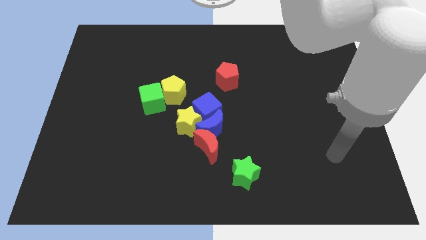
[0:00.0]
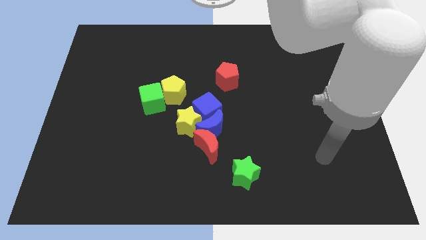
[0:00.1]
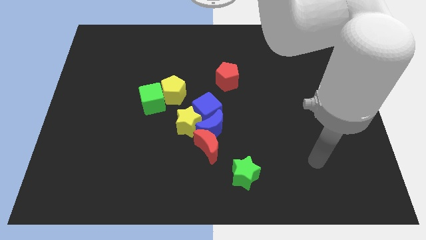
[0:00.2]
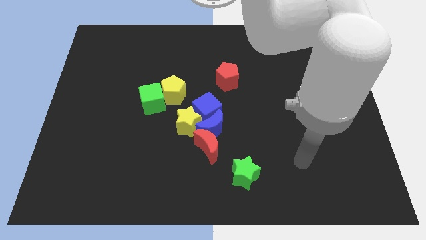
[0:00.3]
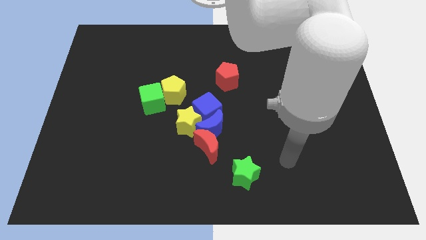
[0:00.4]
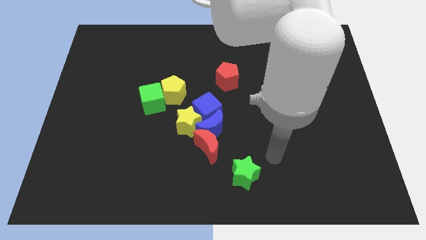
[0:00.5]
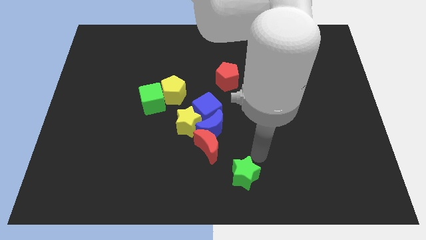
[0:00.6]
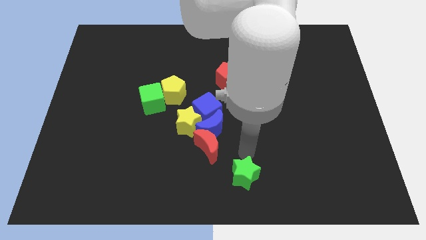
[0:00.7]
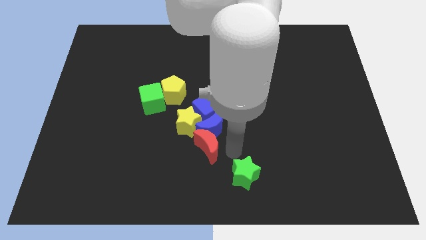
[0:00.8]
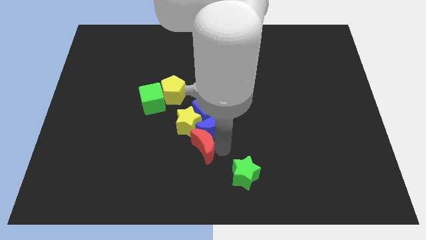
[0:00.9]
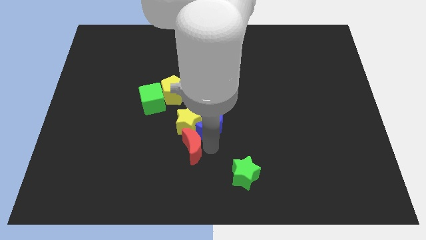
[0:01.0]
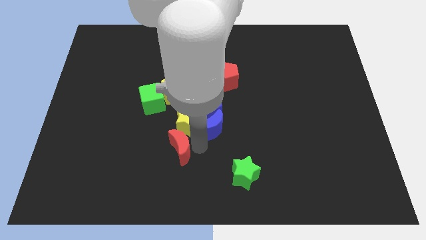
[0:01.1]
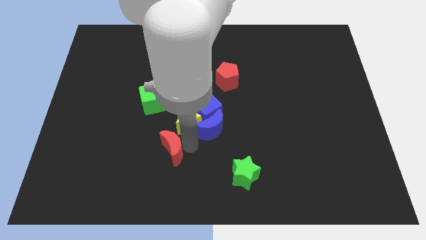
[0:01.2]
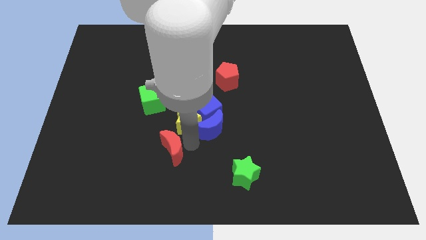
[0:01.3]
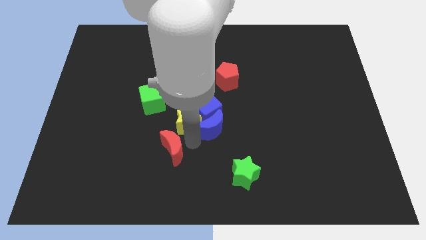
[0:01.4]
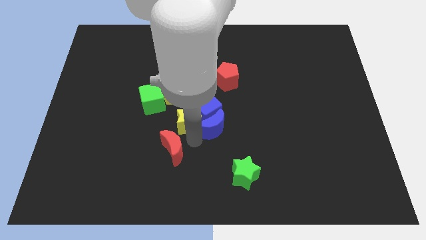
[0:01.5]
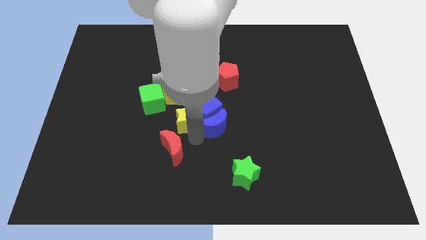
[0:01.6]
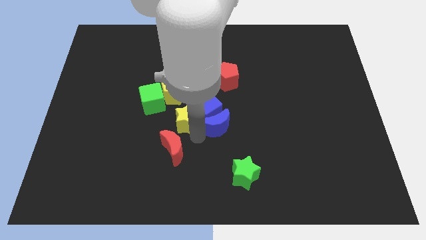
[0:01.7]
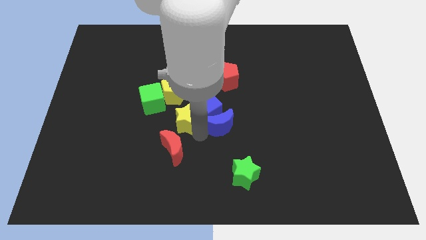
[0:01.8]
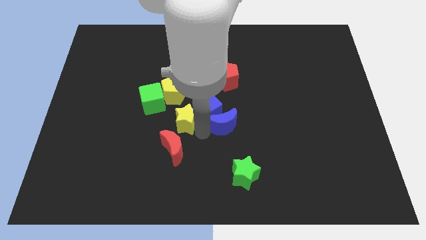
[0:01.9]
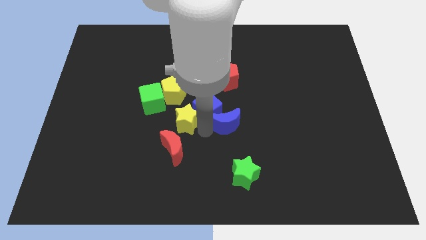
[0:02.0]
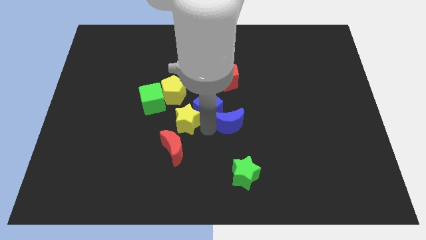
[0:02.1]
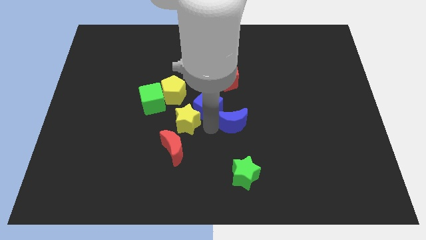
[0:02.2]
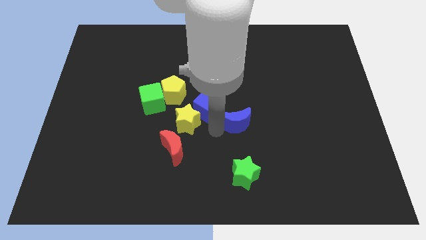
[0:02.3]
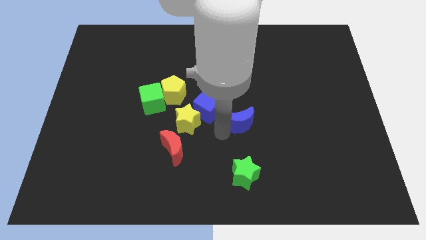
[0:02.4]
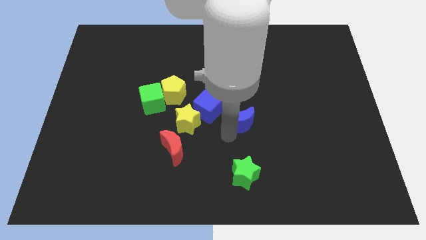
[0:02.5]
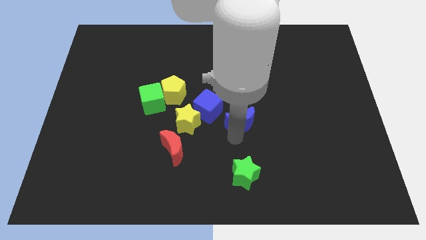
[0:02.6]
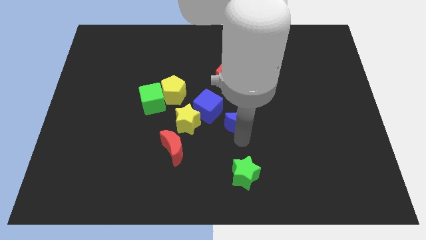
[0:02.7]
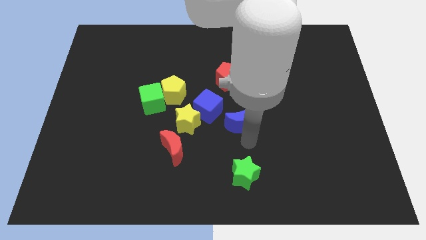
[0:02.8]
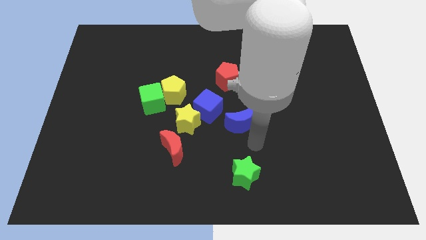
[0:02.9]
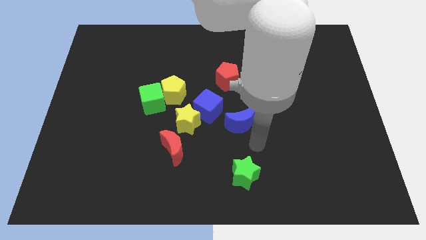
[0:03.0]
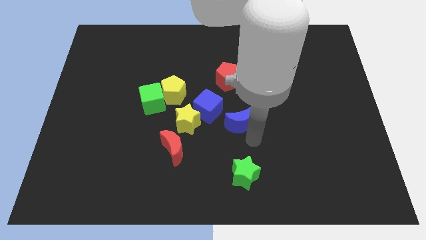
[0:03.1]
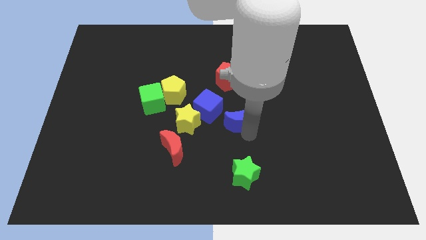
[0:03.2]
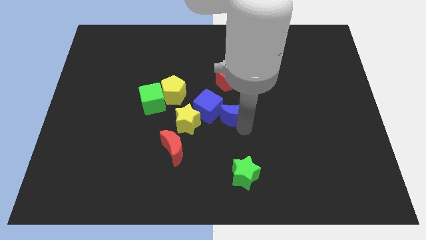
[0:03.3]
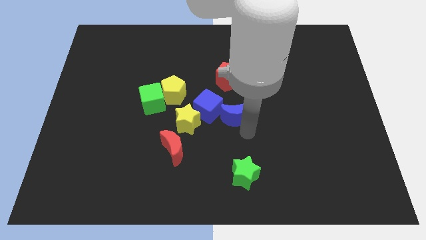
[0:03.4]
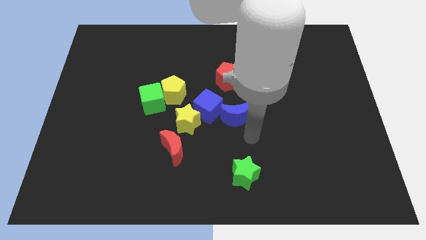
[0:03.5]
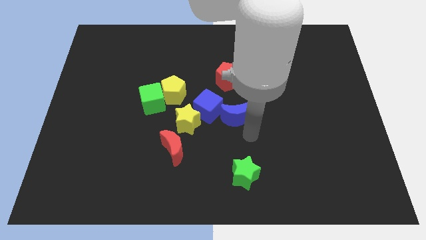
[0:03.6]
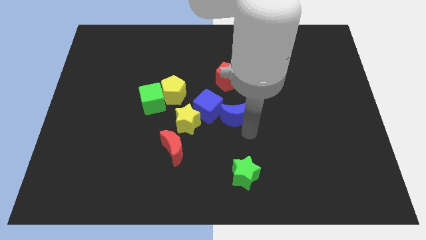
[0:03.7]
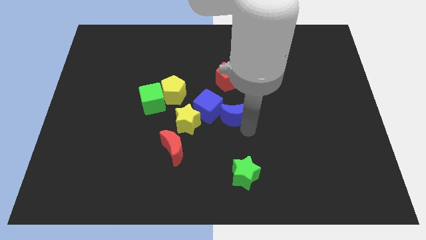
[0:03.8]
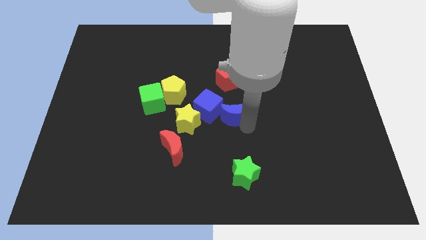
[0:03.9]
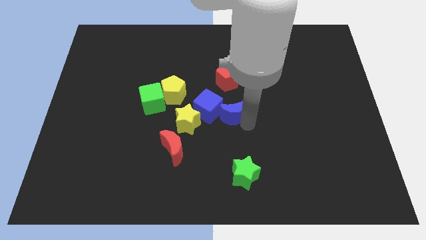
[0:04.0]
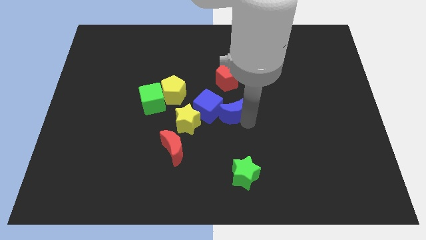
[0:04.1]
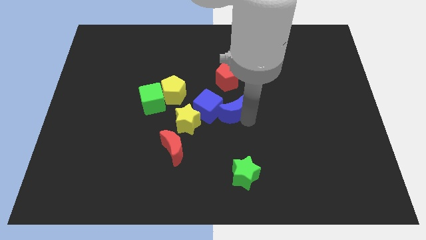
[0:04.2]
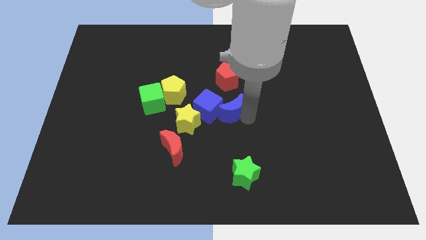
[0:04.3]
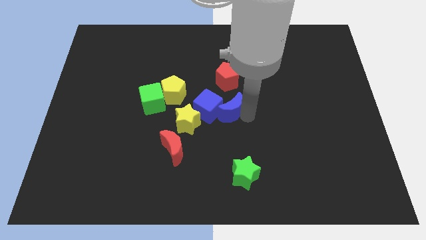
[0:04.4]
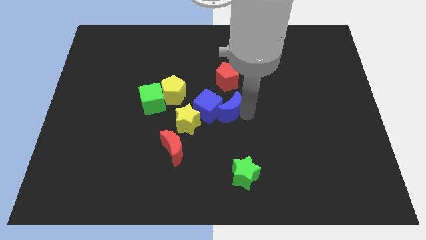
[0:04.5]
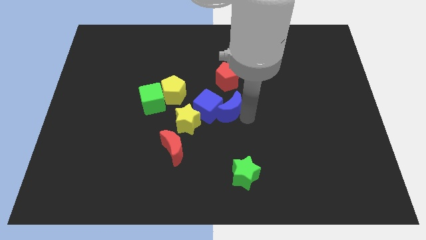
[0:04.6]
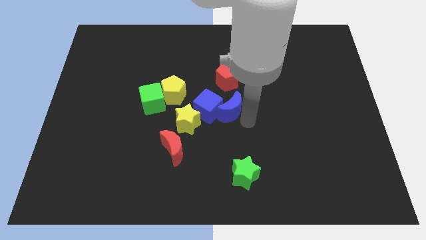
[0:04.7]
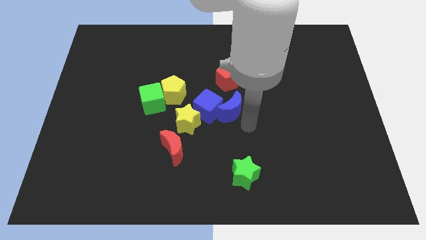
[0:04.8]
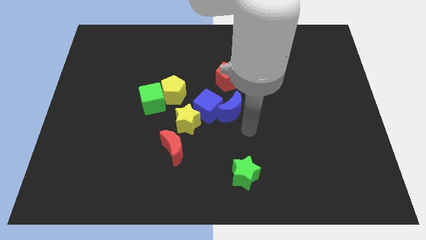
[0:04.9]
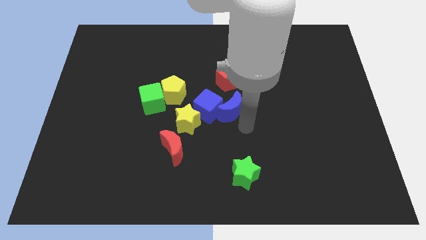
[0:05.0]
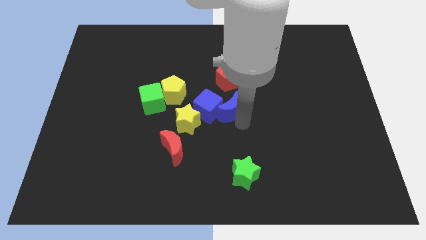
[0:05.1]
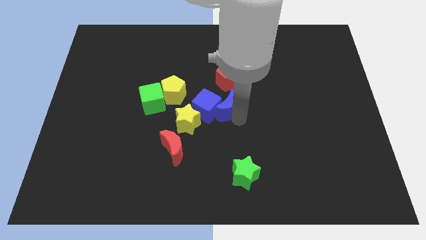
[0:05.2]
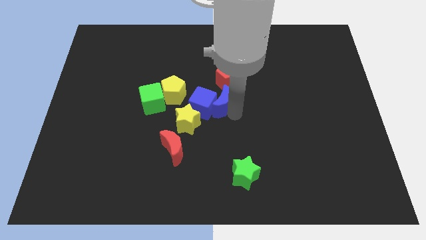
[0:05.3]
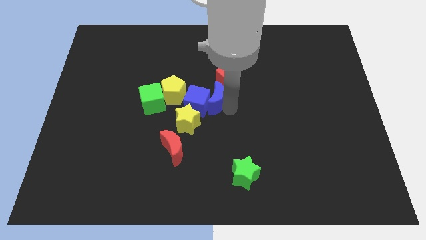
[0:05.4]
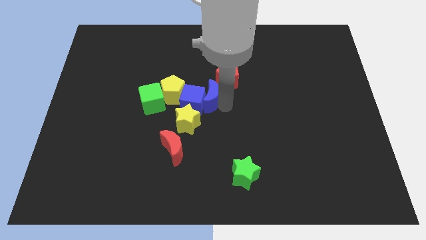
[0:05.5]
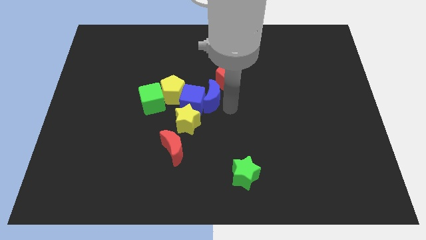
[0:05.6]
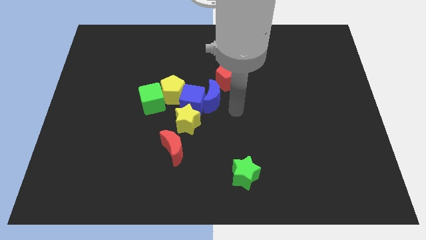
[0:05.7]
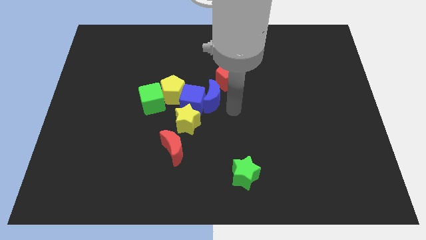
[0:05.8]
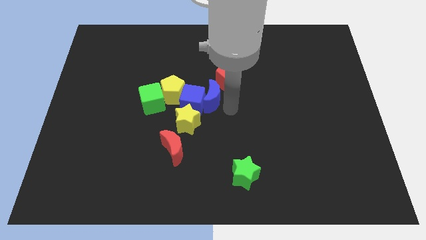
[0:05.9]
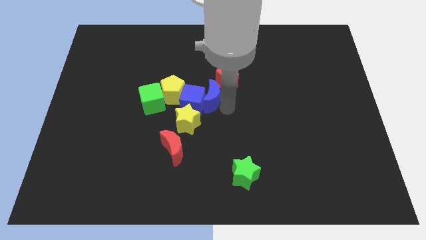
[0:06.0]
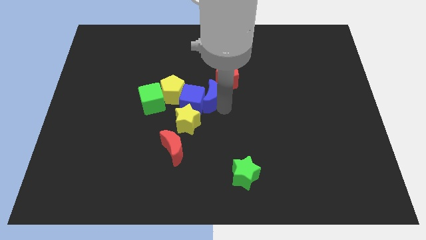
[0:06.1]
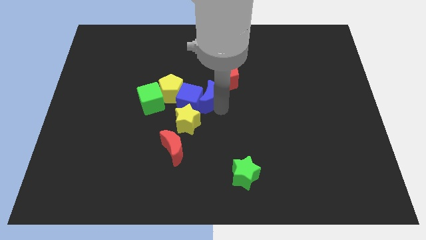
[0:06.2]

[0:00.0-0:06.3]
push the blue moon above the yellow star

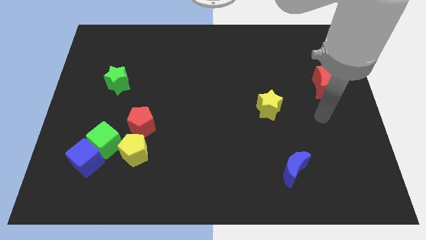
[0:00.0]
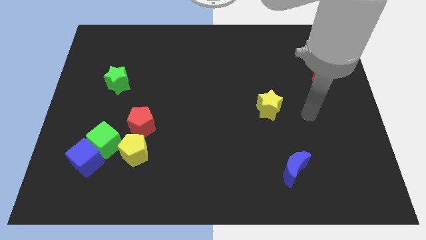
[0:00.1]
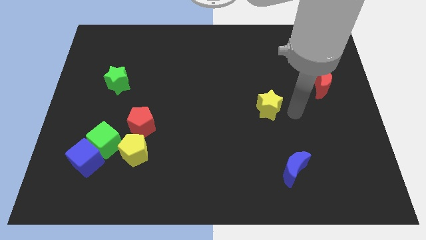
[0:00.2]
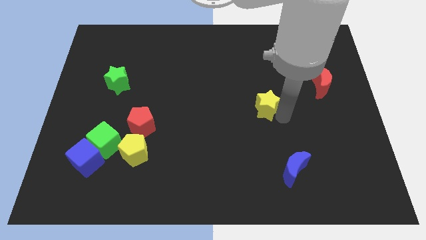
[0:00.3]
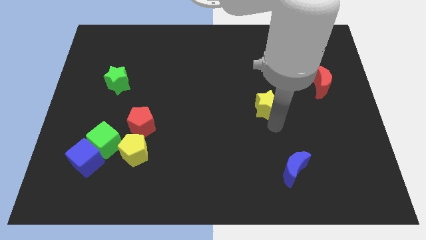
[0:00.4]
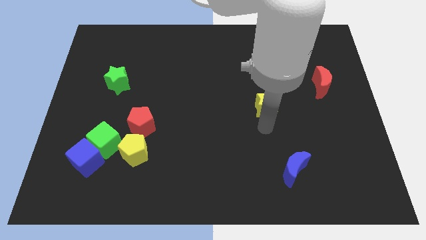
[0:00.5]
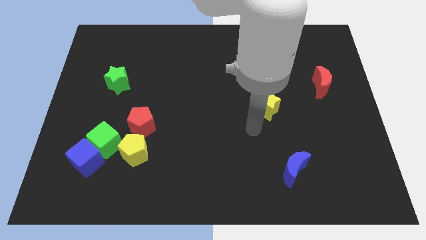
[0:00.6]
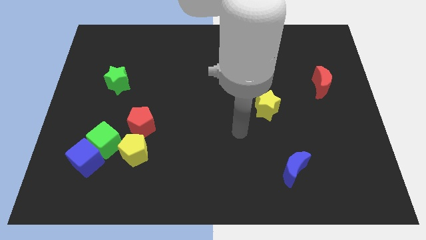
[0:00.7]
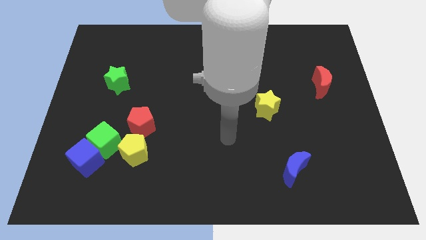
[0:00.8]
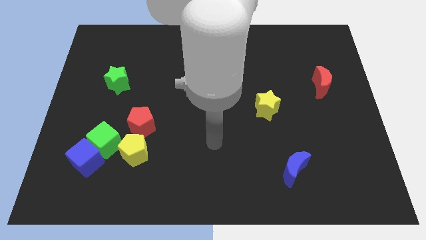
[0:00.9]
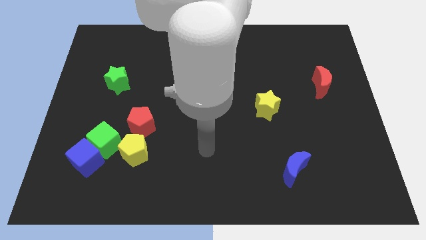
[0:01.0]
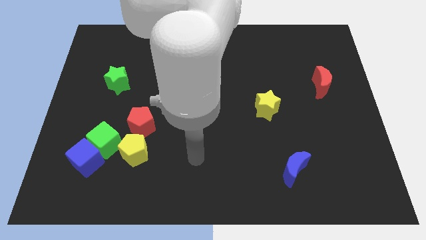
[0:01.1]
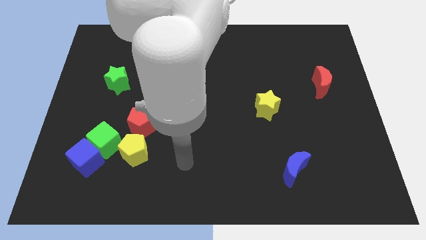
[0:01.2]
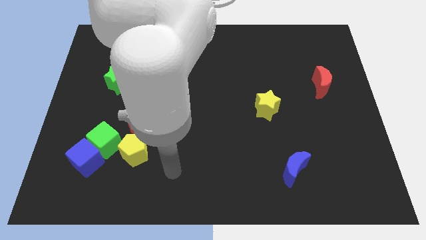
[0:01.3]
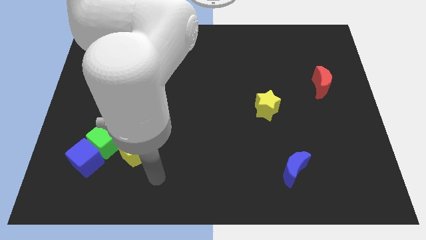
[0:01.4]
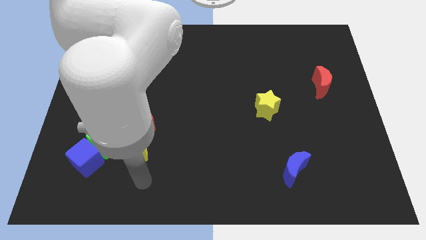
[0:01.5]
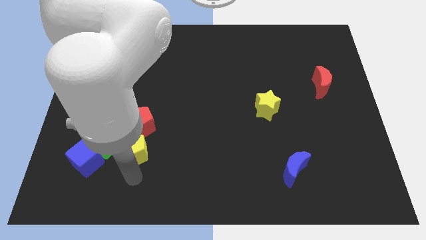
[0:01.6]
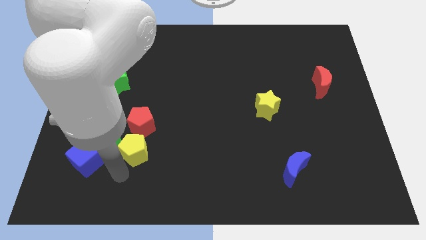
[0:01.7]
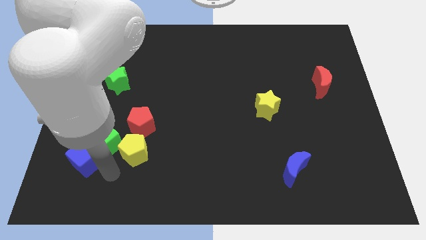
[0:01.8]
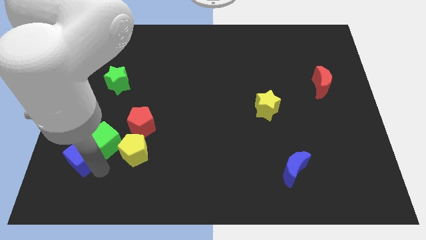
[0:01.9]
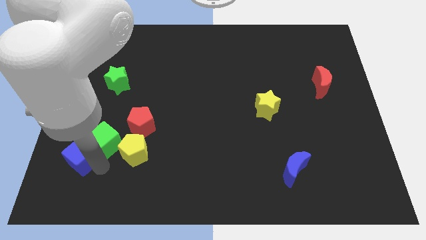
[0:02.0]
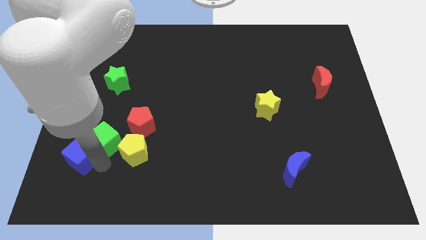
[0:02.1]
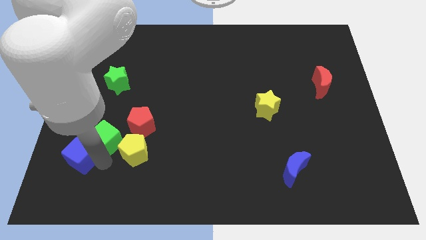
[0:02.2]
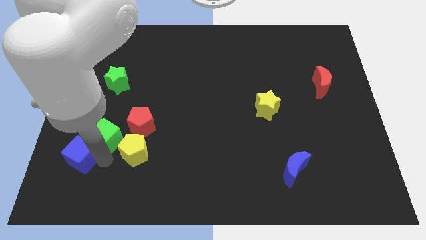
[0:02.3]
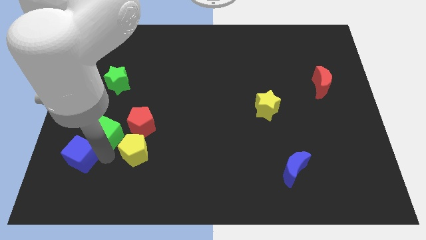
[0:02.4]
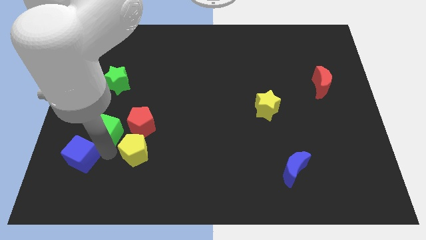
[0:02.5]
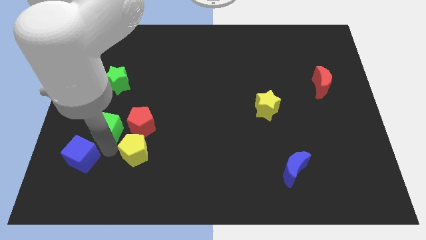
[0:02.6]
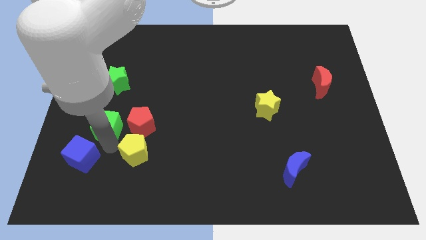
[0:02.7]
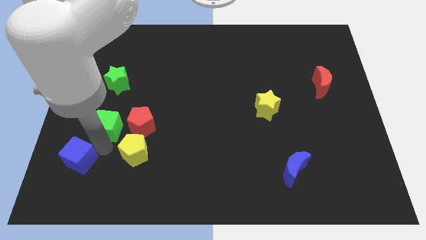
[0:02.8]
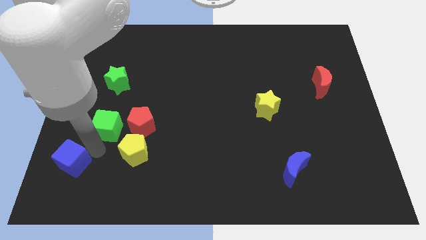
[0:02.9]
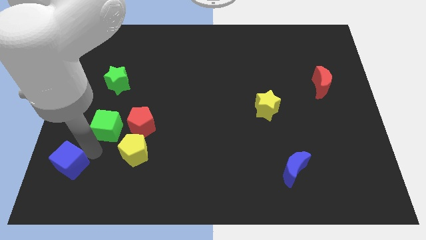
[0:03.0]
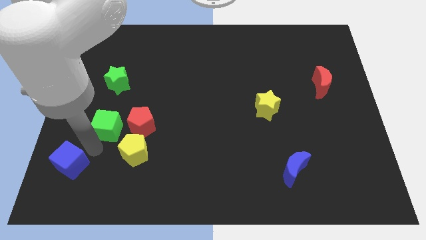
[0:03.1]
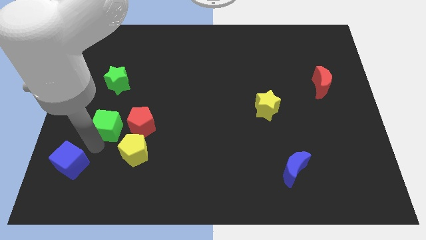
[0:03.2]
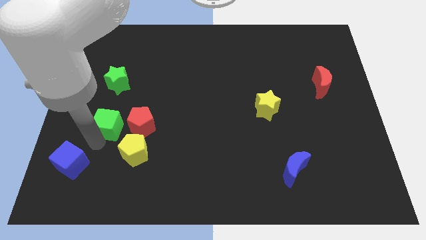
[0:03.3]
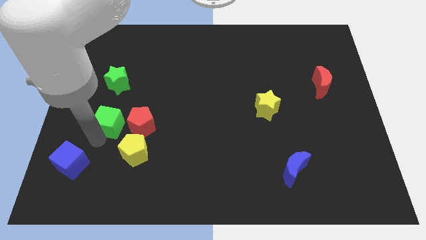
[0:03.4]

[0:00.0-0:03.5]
put the green cube diagonally up and to the left of the red pentagon
